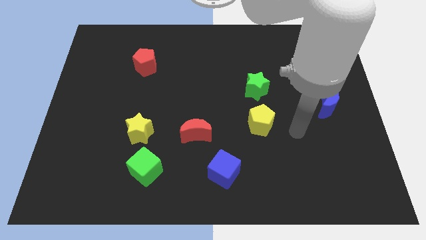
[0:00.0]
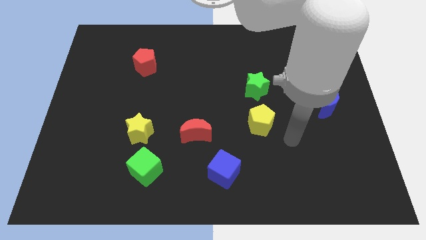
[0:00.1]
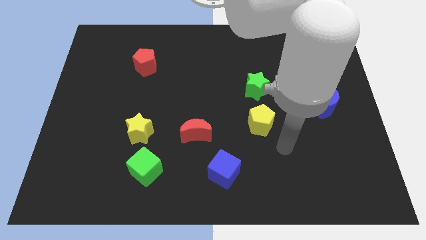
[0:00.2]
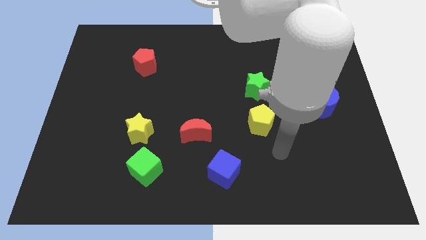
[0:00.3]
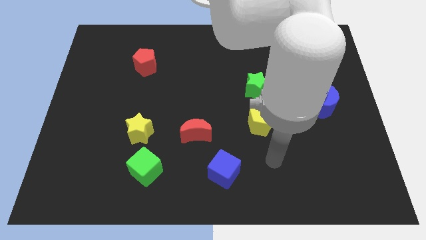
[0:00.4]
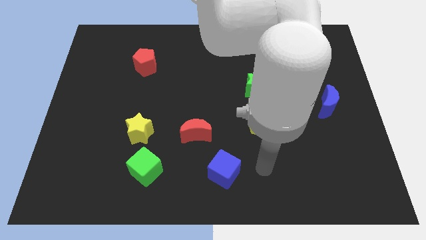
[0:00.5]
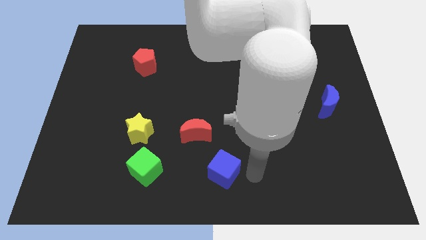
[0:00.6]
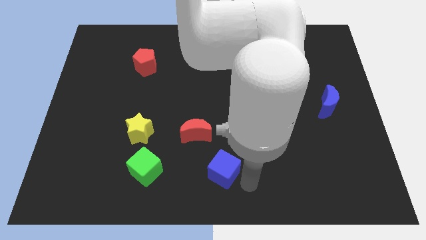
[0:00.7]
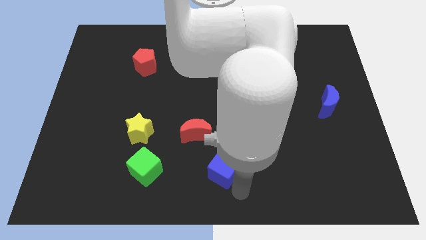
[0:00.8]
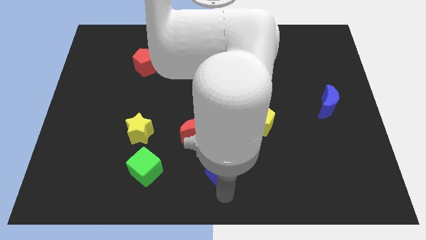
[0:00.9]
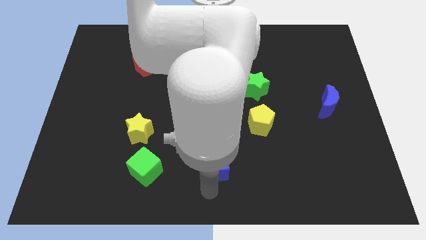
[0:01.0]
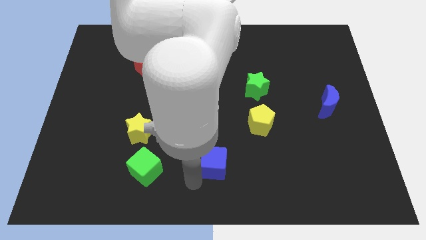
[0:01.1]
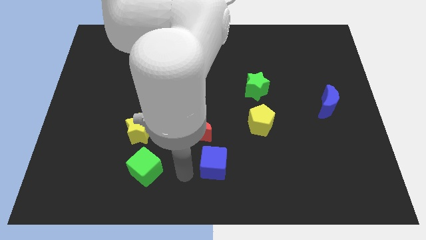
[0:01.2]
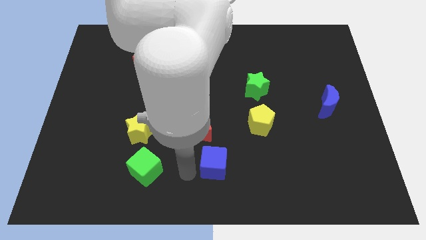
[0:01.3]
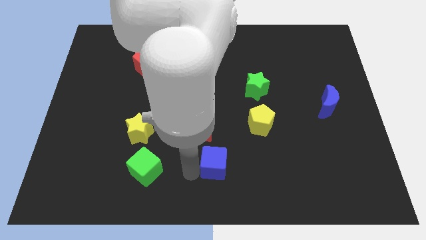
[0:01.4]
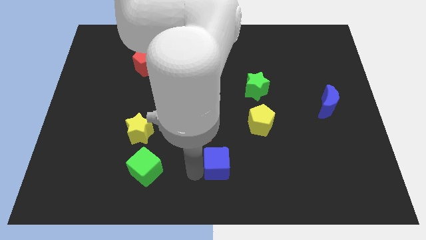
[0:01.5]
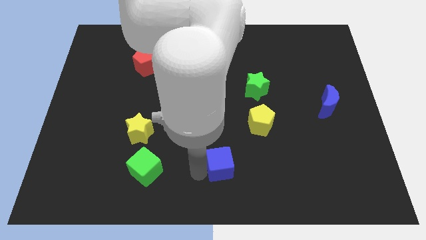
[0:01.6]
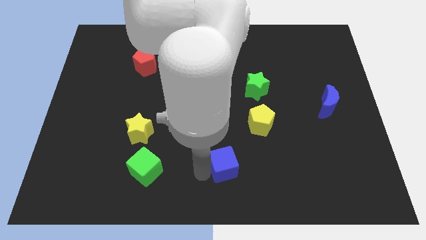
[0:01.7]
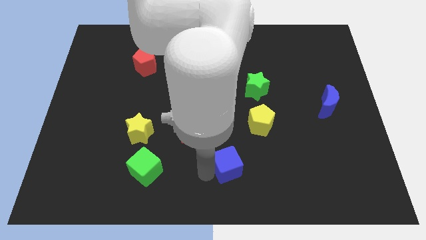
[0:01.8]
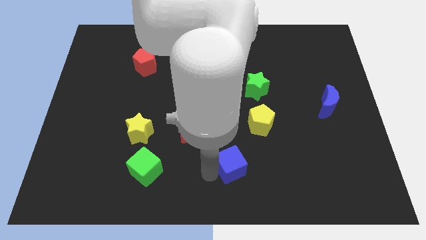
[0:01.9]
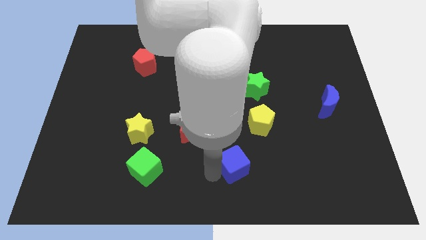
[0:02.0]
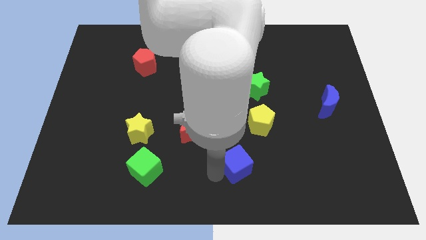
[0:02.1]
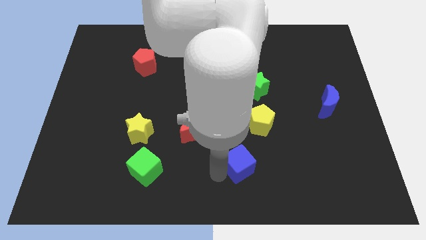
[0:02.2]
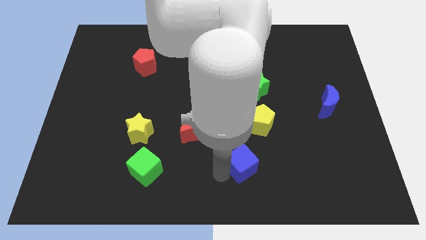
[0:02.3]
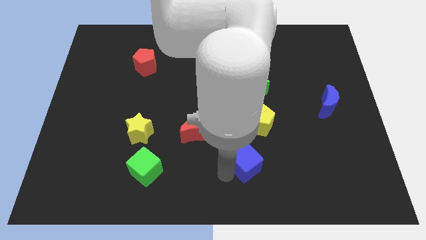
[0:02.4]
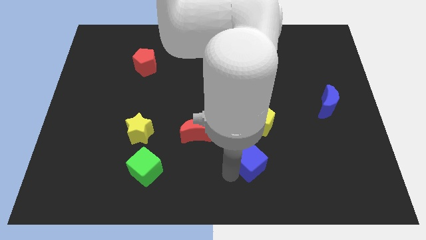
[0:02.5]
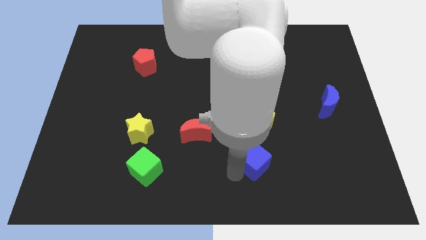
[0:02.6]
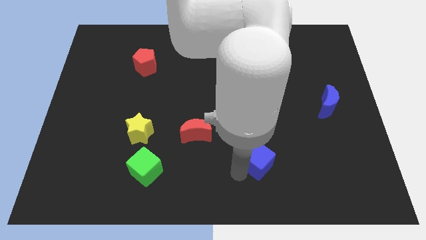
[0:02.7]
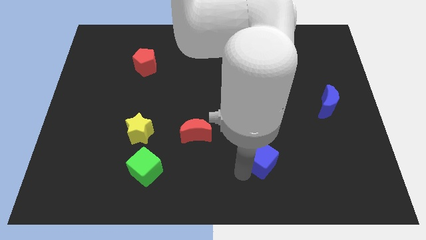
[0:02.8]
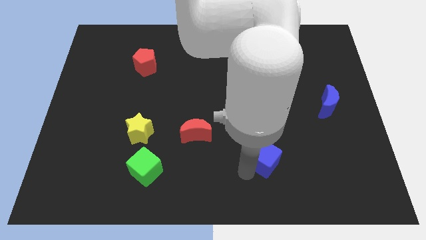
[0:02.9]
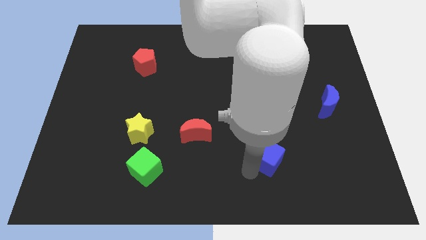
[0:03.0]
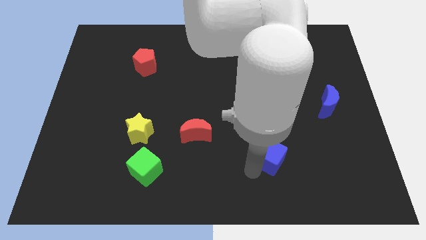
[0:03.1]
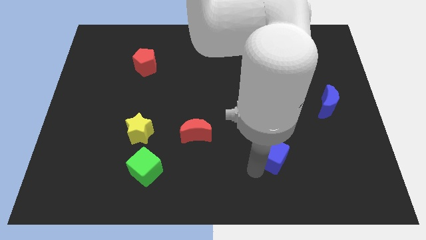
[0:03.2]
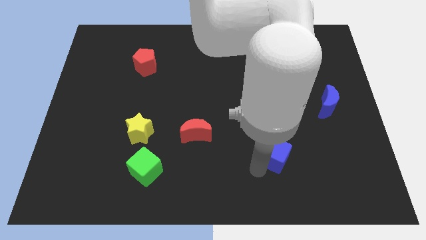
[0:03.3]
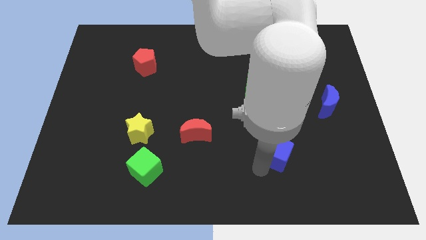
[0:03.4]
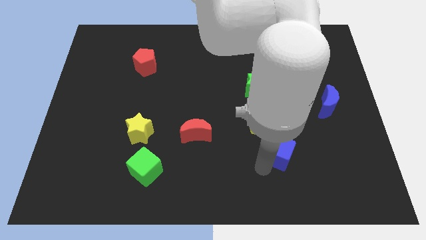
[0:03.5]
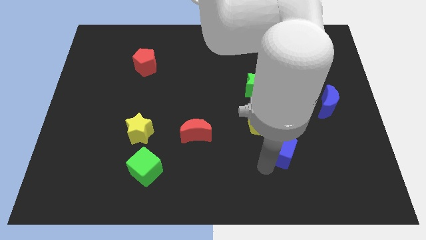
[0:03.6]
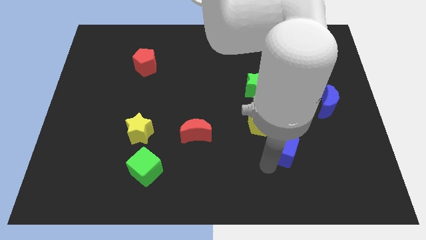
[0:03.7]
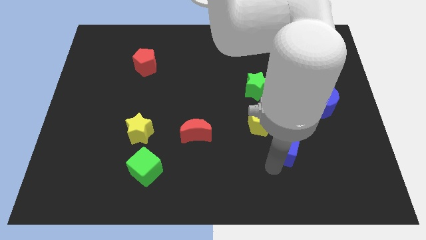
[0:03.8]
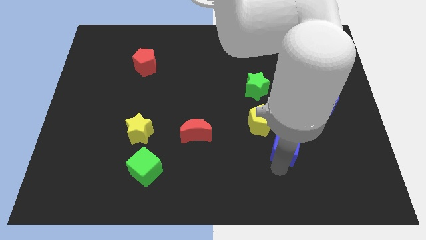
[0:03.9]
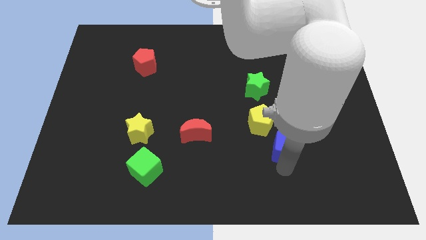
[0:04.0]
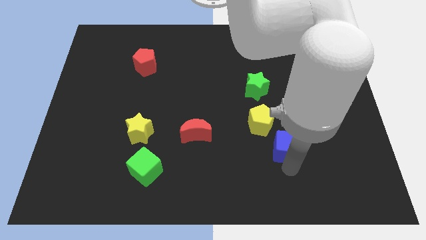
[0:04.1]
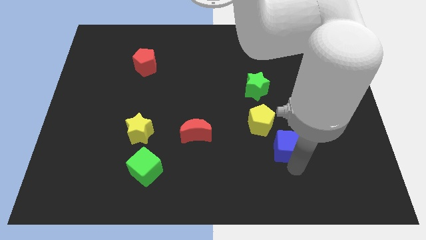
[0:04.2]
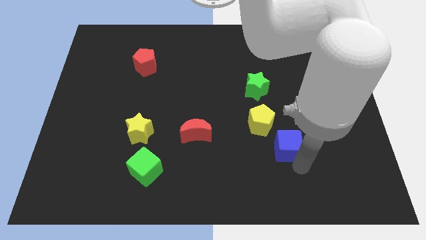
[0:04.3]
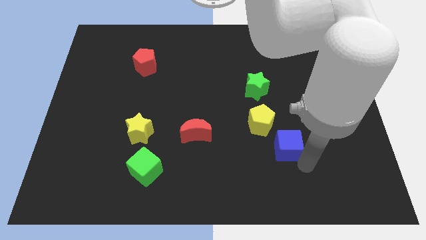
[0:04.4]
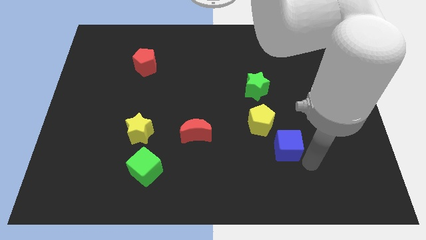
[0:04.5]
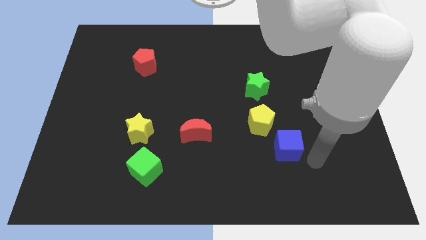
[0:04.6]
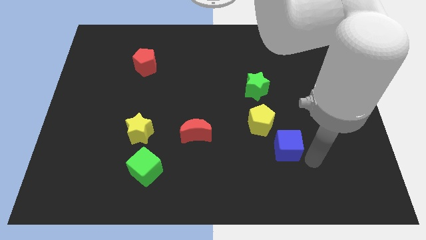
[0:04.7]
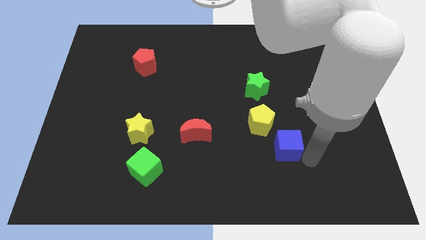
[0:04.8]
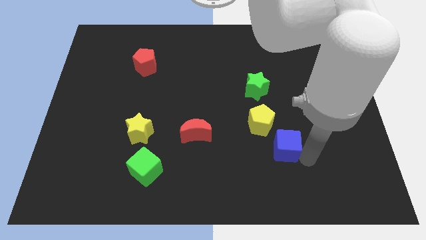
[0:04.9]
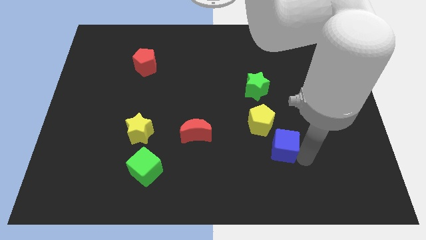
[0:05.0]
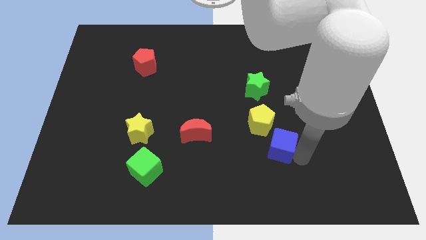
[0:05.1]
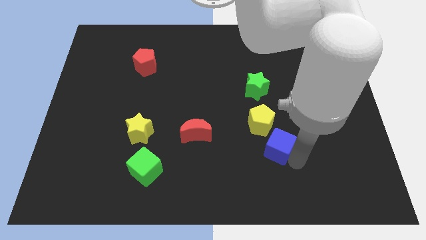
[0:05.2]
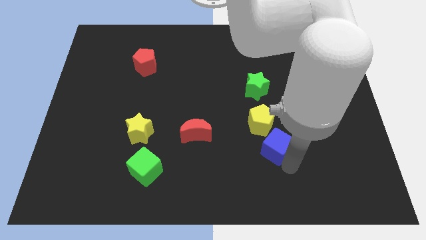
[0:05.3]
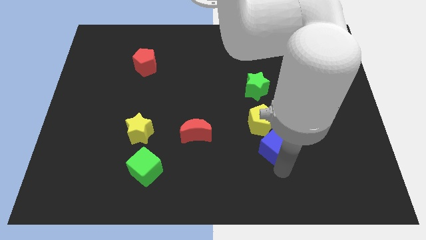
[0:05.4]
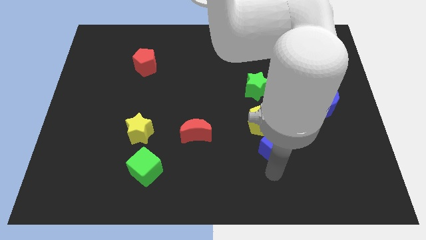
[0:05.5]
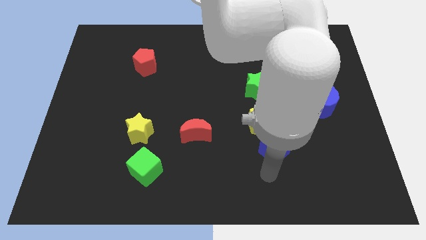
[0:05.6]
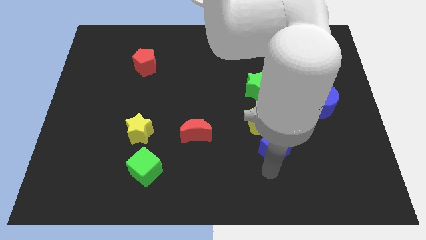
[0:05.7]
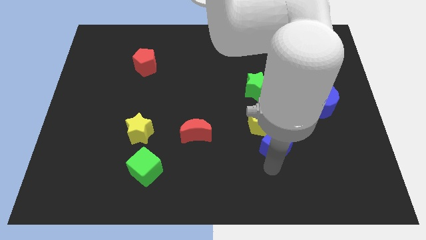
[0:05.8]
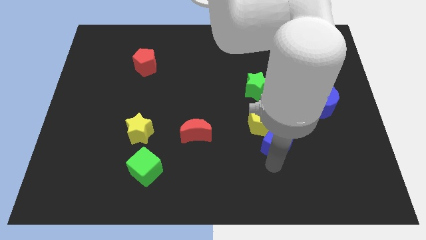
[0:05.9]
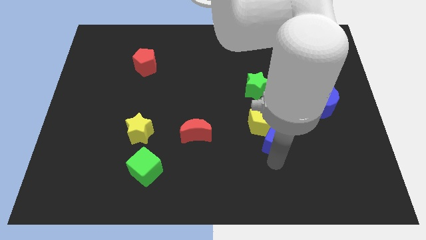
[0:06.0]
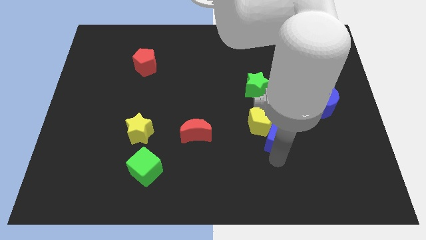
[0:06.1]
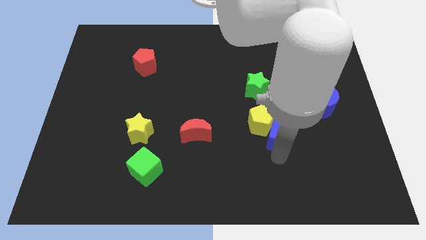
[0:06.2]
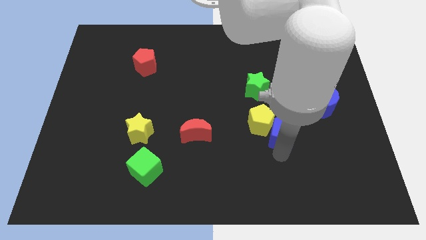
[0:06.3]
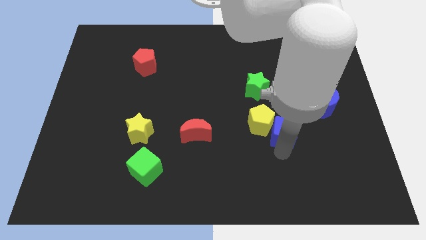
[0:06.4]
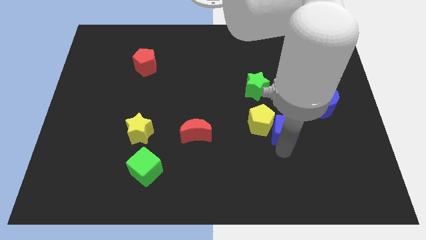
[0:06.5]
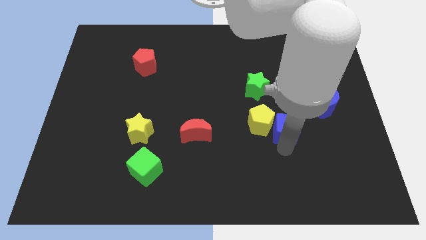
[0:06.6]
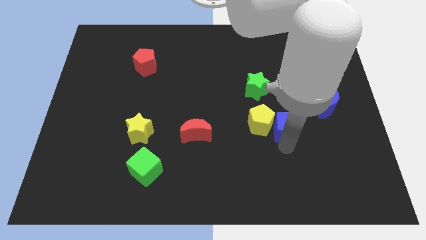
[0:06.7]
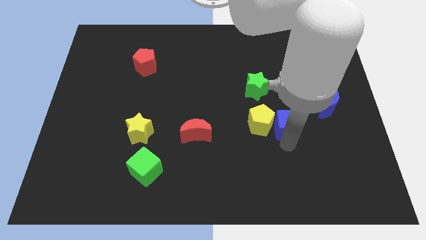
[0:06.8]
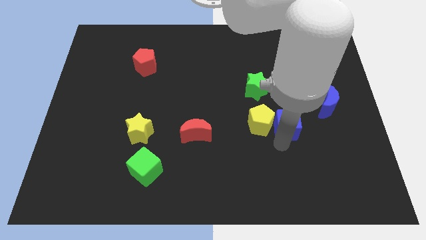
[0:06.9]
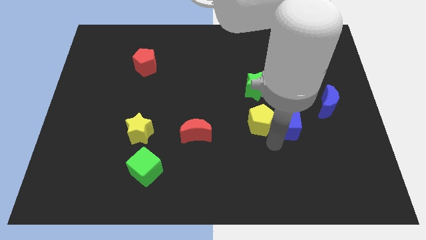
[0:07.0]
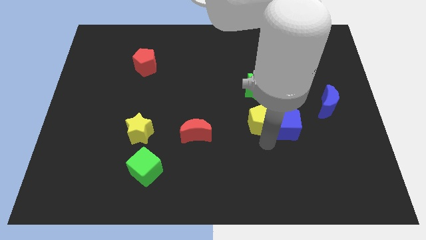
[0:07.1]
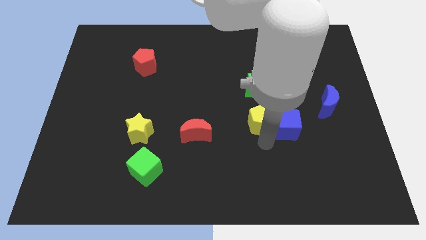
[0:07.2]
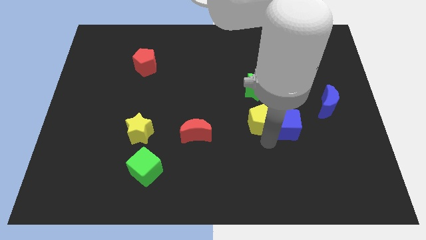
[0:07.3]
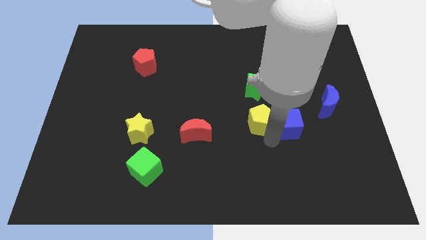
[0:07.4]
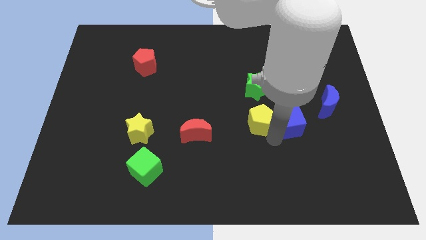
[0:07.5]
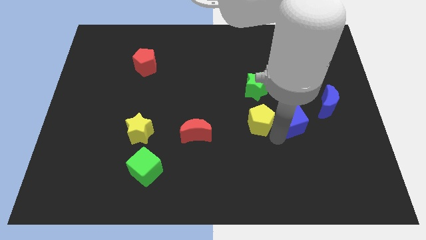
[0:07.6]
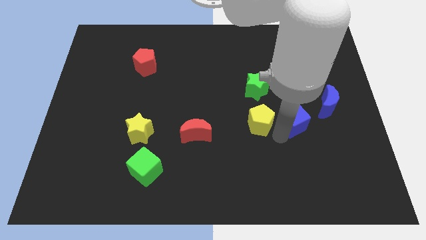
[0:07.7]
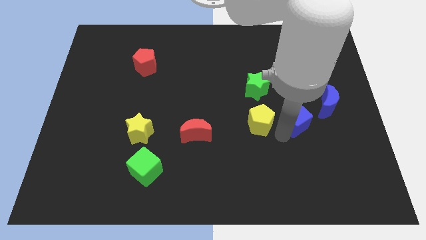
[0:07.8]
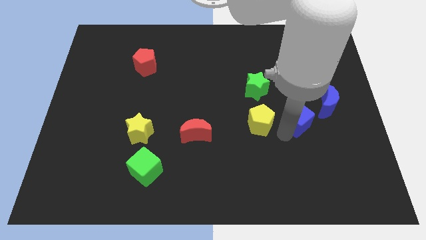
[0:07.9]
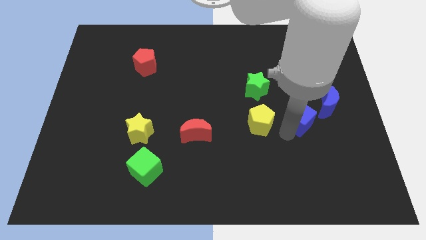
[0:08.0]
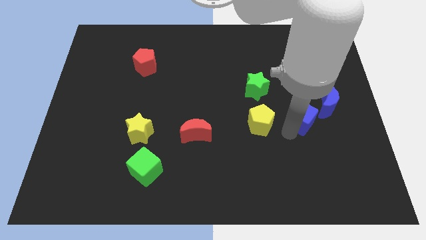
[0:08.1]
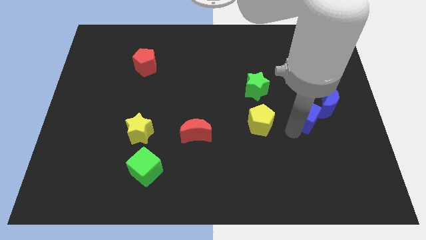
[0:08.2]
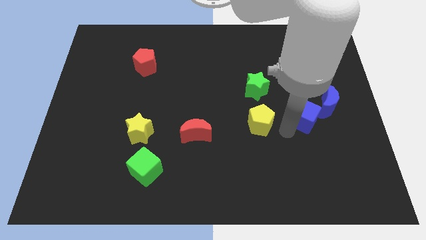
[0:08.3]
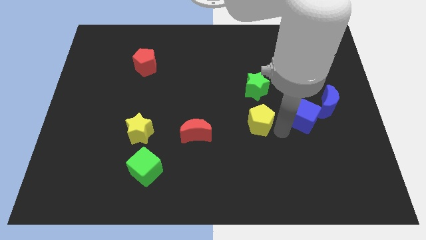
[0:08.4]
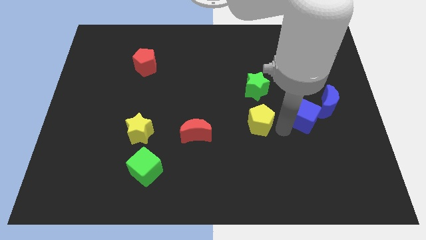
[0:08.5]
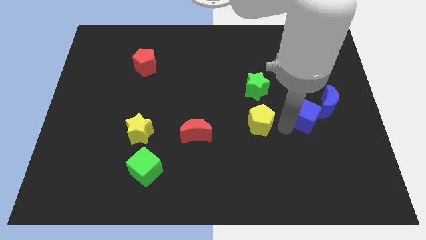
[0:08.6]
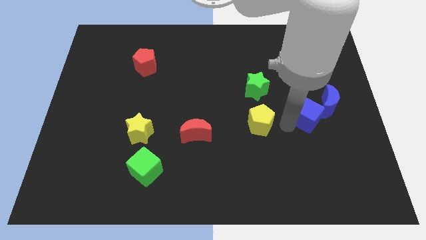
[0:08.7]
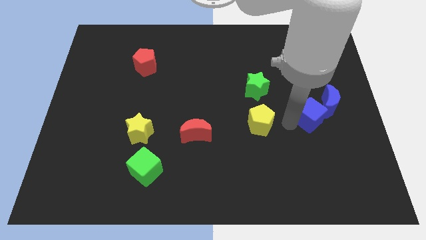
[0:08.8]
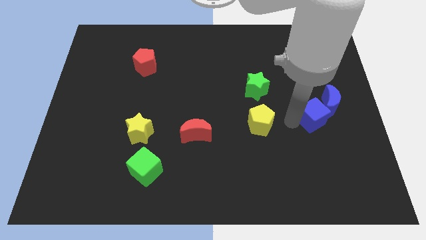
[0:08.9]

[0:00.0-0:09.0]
put the blue cube to the blue moon
